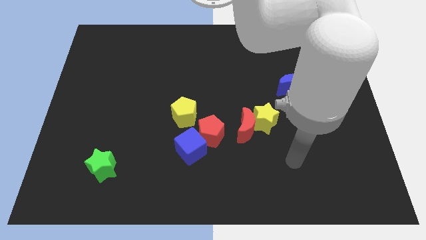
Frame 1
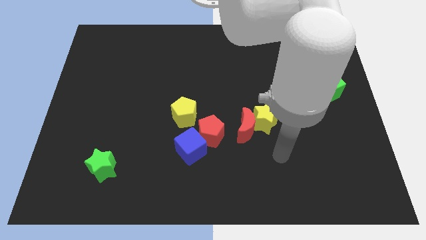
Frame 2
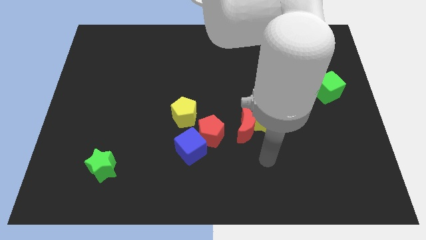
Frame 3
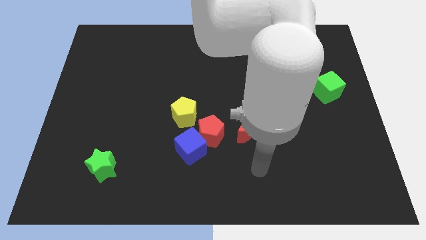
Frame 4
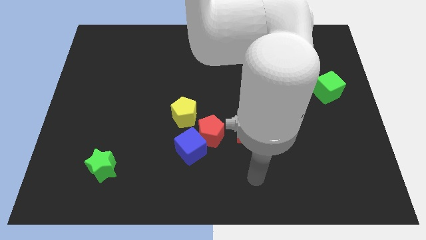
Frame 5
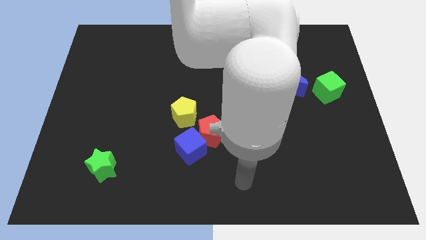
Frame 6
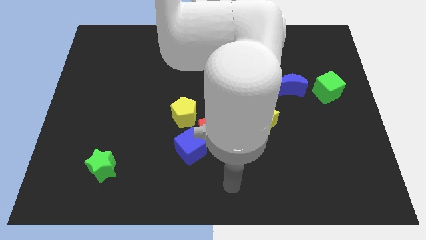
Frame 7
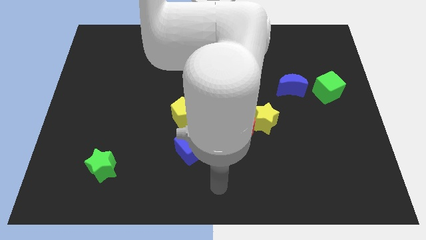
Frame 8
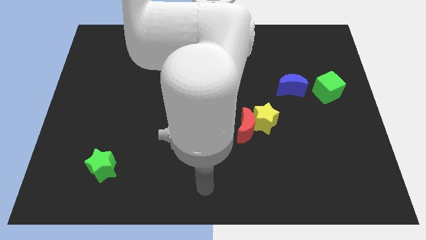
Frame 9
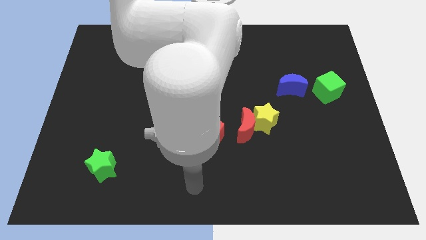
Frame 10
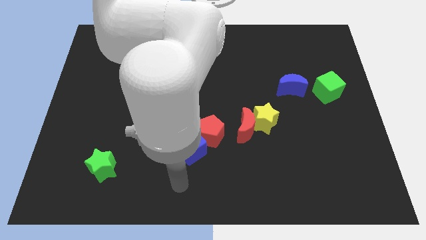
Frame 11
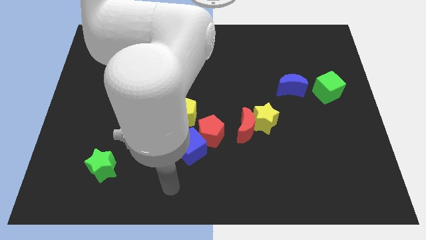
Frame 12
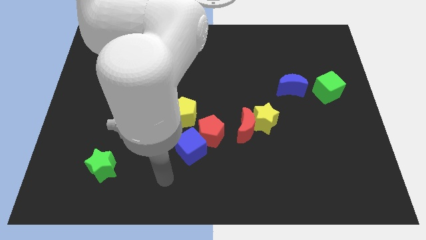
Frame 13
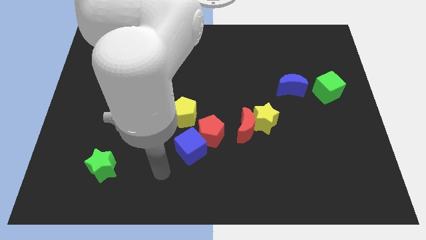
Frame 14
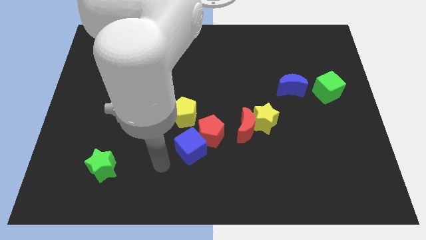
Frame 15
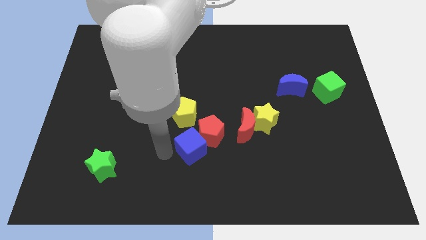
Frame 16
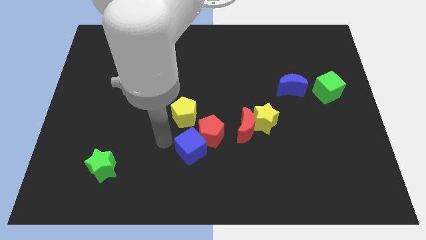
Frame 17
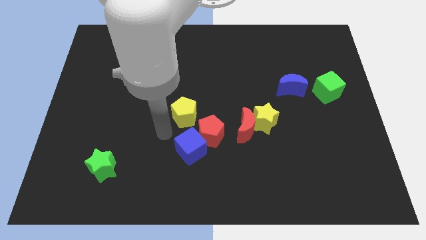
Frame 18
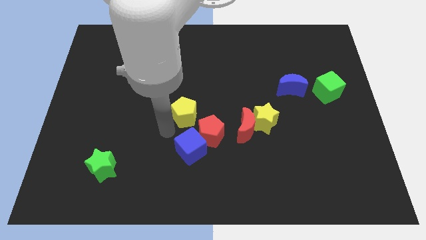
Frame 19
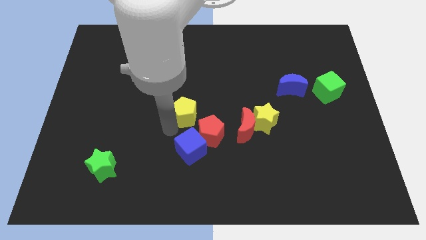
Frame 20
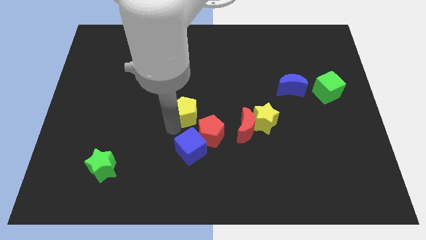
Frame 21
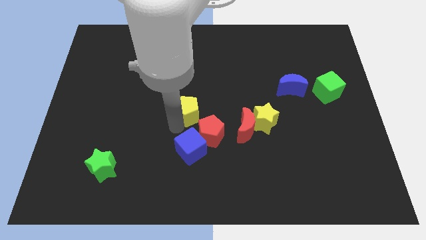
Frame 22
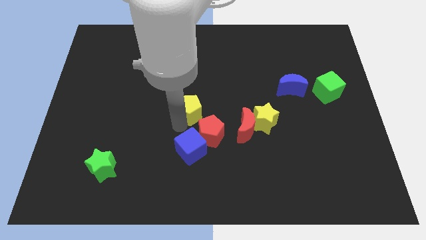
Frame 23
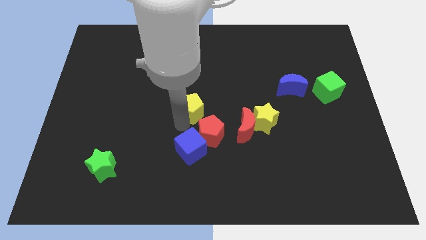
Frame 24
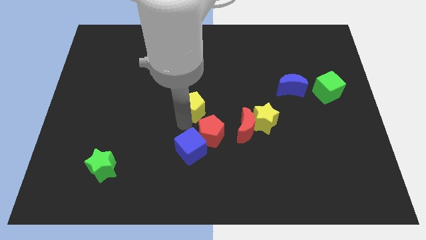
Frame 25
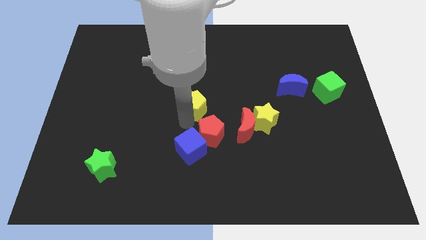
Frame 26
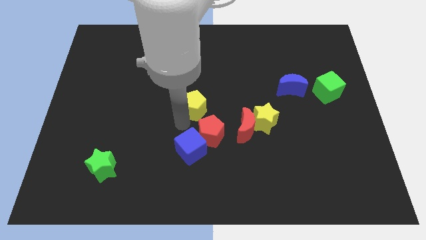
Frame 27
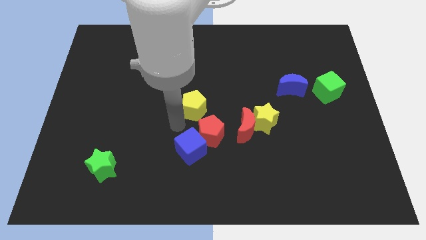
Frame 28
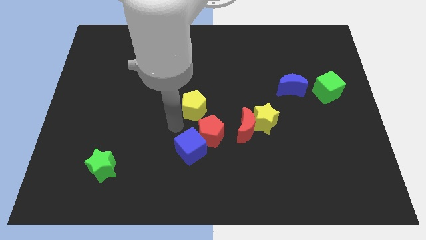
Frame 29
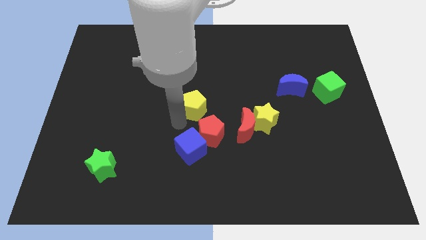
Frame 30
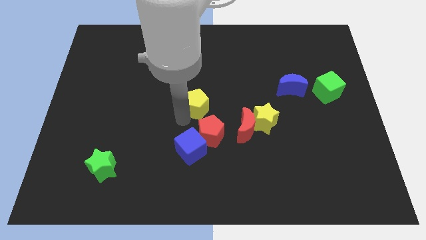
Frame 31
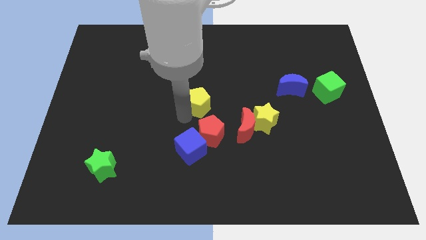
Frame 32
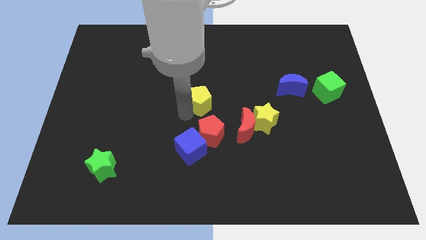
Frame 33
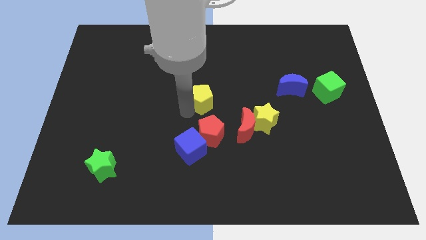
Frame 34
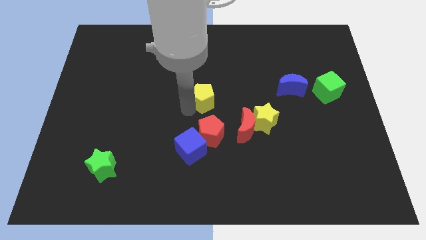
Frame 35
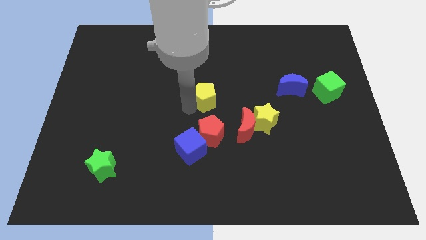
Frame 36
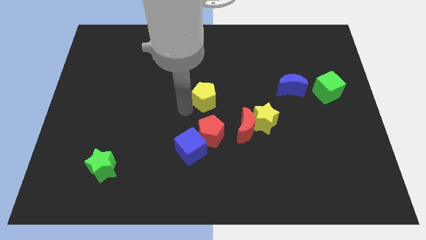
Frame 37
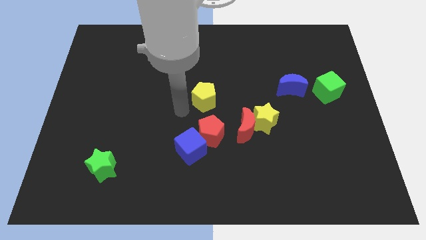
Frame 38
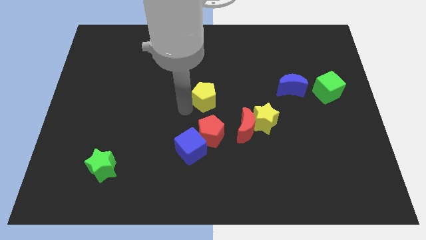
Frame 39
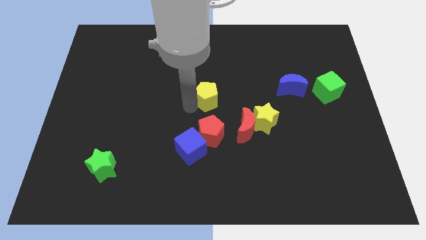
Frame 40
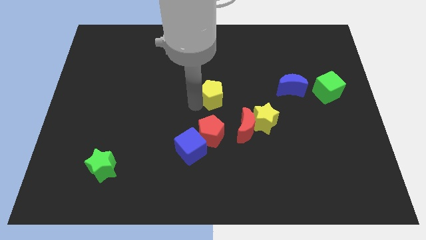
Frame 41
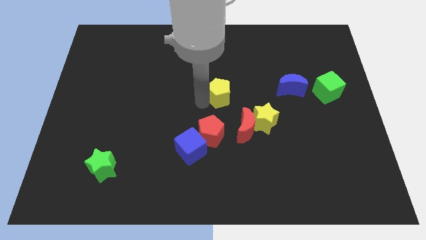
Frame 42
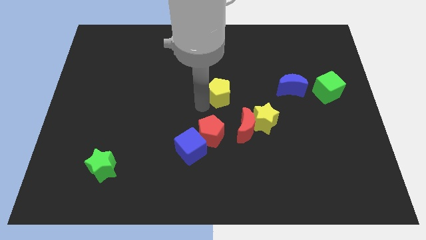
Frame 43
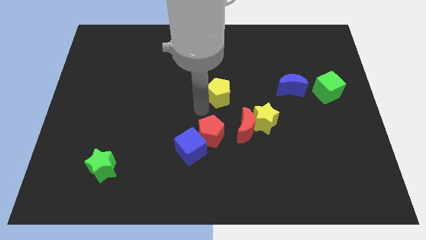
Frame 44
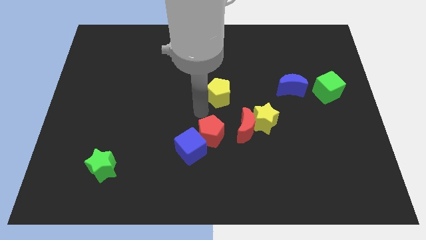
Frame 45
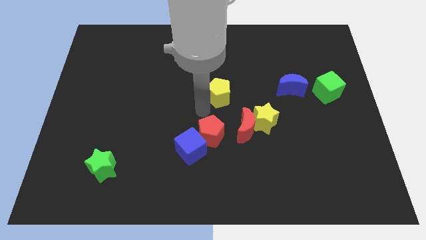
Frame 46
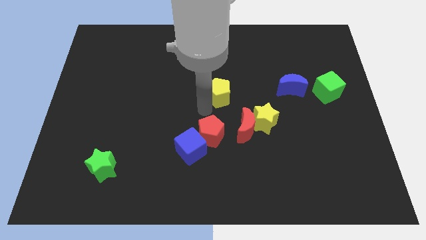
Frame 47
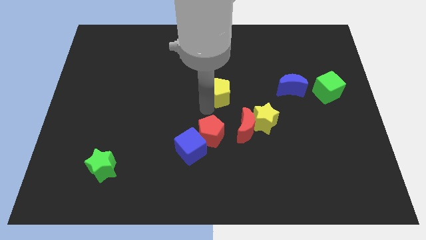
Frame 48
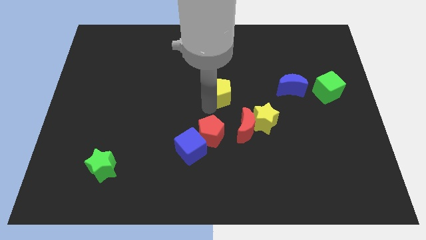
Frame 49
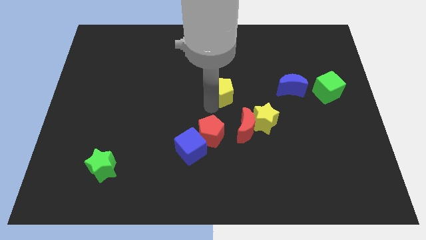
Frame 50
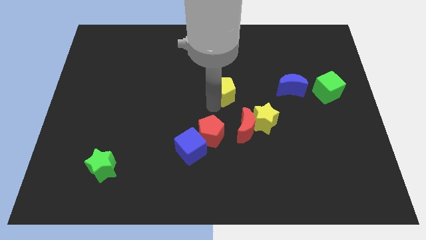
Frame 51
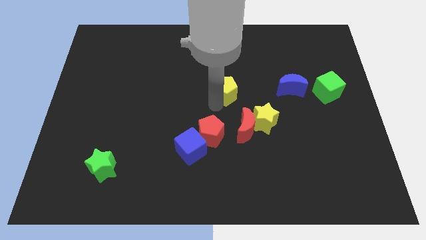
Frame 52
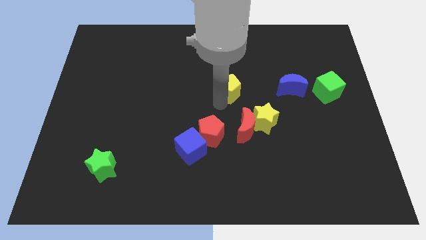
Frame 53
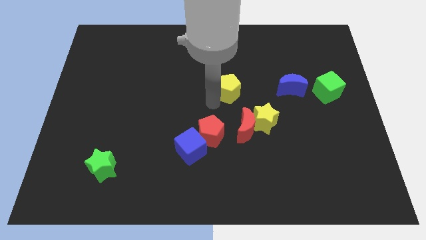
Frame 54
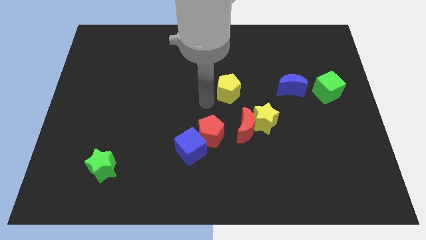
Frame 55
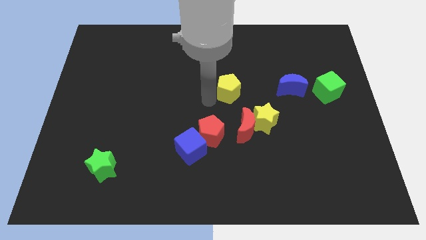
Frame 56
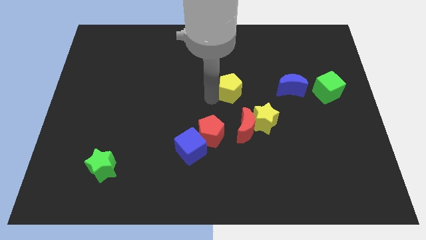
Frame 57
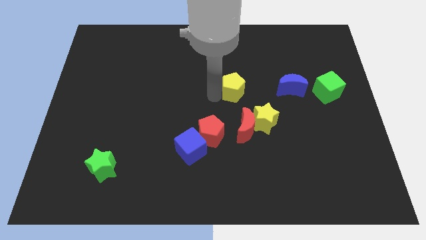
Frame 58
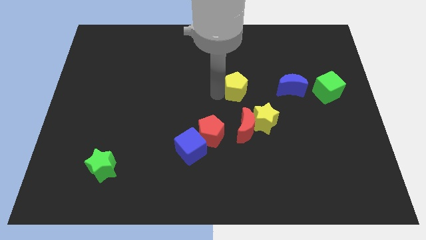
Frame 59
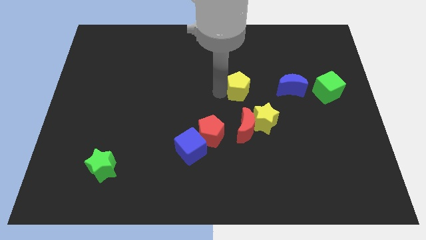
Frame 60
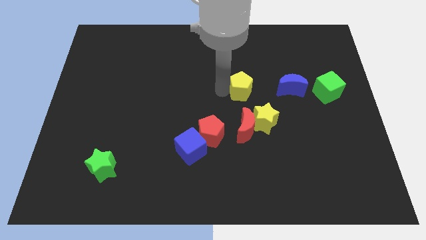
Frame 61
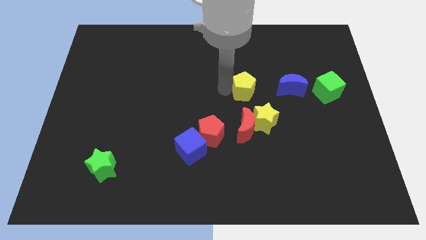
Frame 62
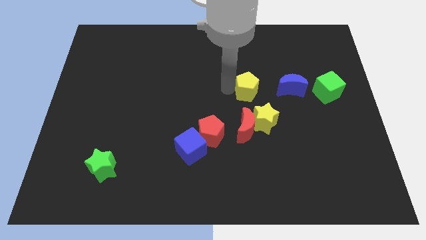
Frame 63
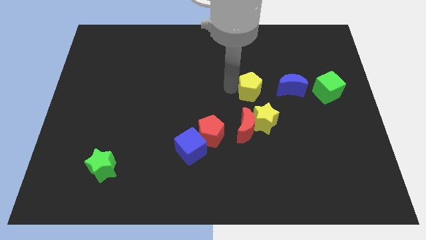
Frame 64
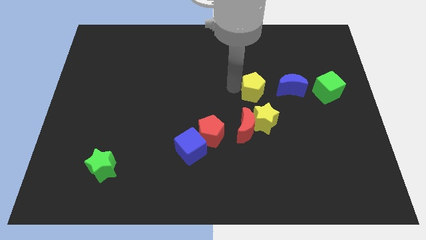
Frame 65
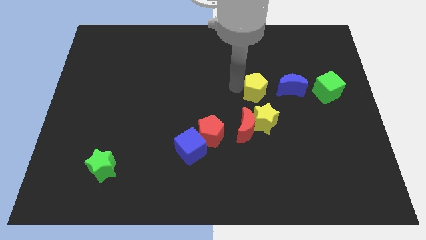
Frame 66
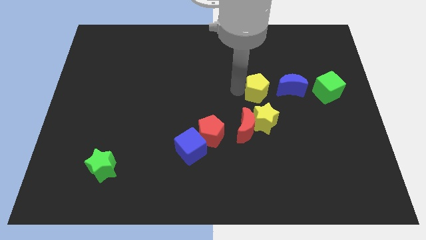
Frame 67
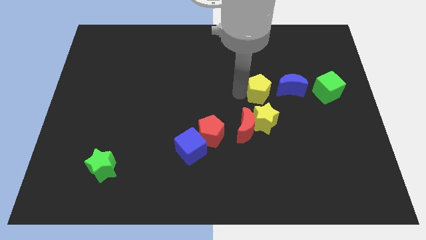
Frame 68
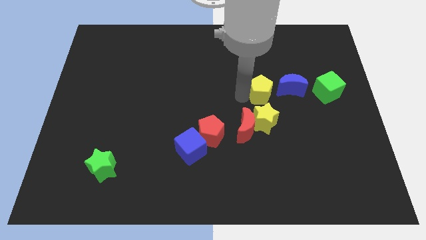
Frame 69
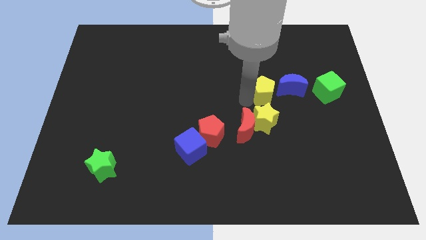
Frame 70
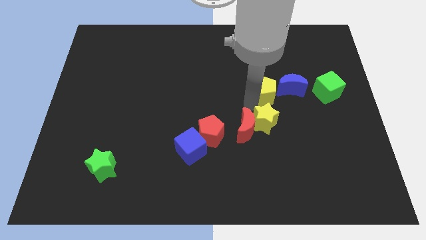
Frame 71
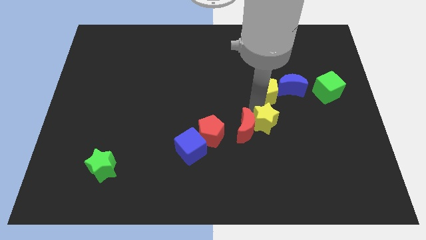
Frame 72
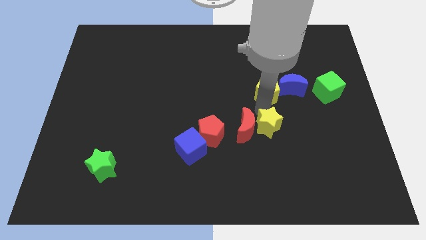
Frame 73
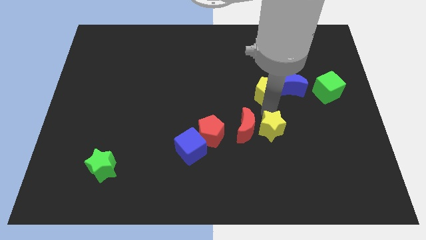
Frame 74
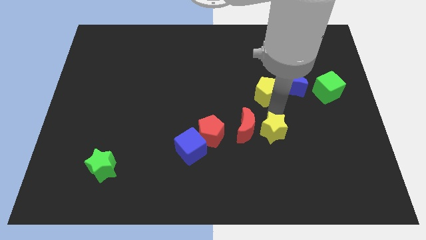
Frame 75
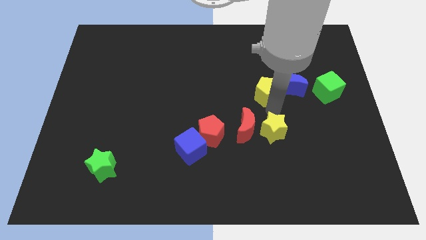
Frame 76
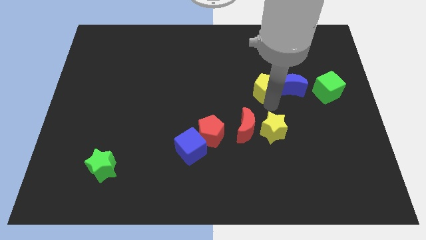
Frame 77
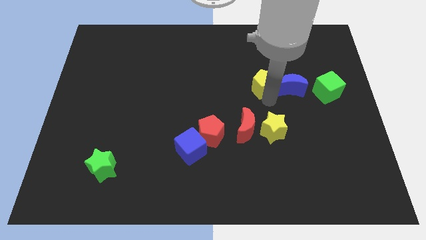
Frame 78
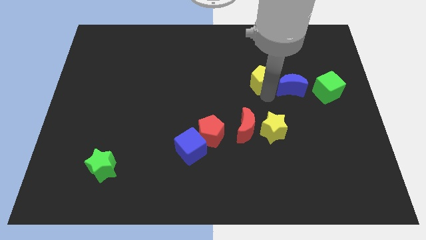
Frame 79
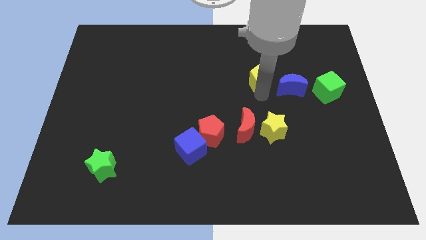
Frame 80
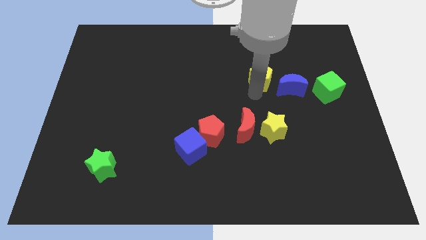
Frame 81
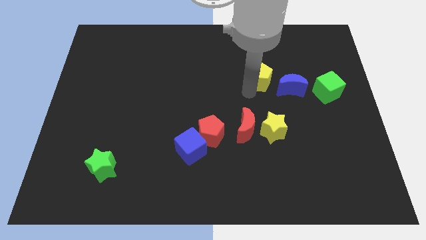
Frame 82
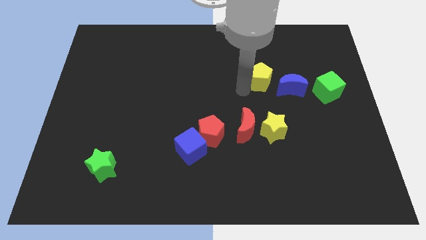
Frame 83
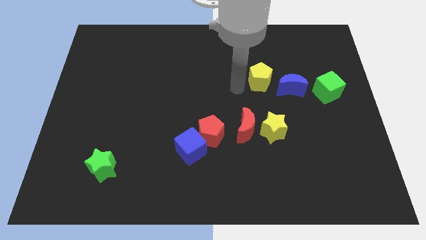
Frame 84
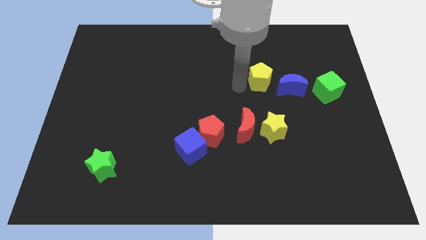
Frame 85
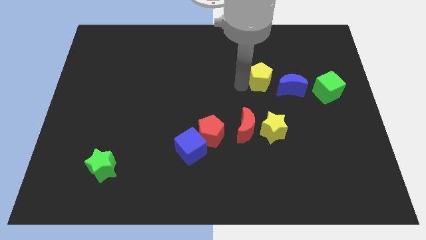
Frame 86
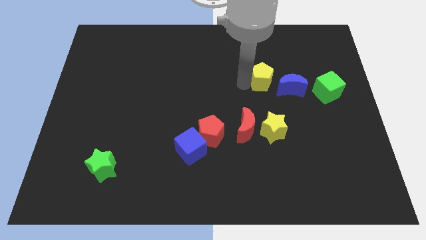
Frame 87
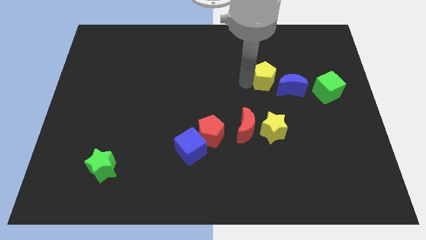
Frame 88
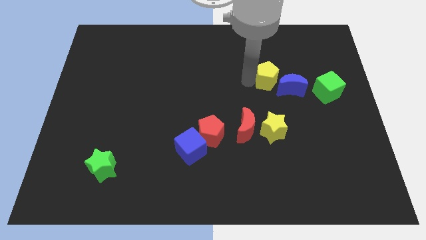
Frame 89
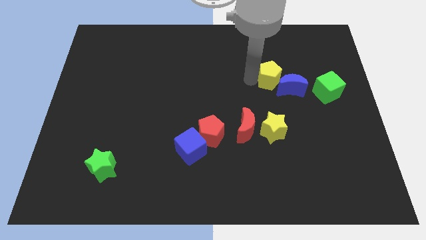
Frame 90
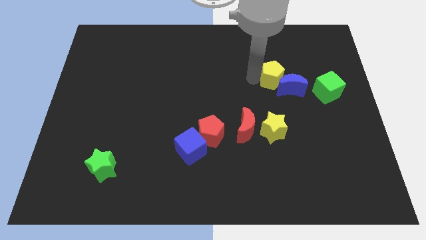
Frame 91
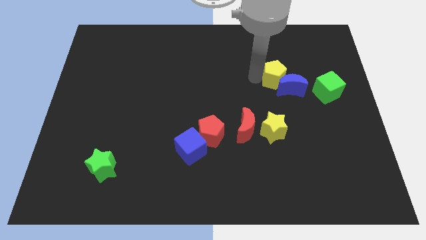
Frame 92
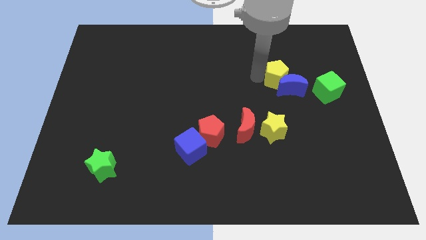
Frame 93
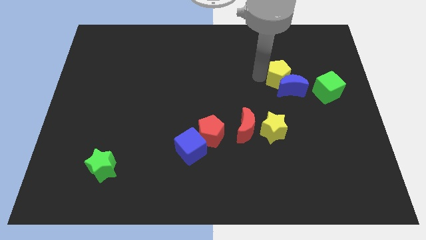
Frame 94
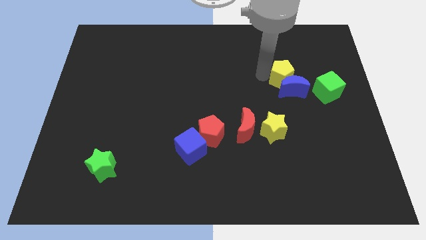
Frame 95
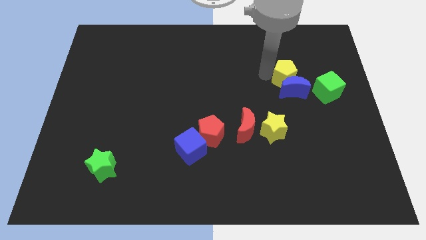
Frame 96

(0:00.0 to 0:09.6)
put the yellow pentagon diagonally up and to the right of the blue moon
